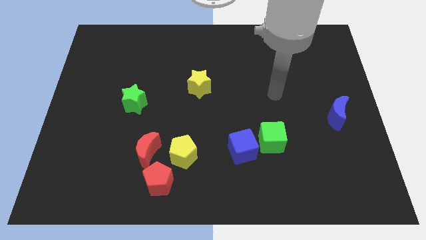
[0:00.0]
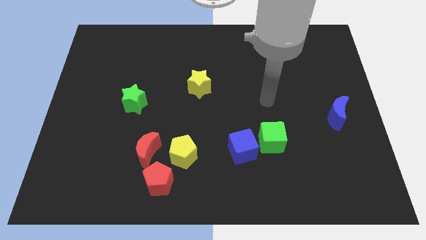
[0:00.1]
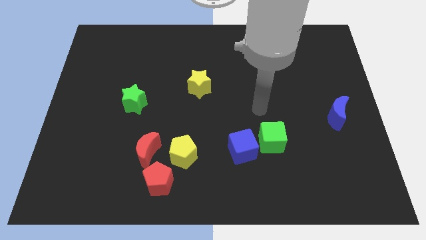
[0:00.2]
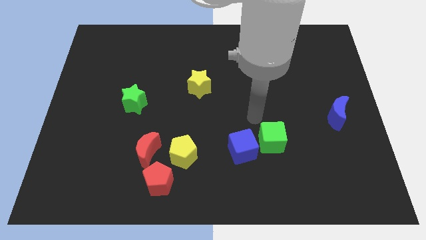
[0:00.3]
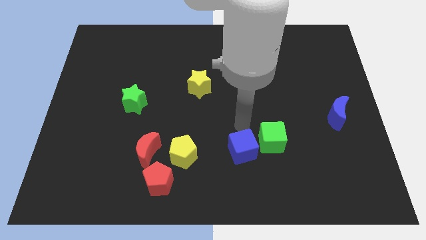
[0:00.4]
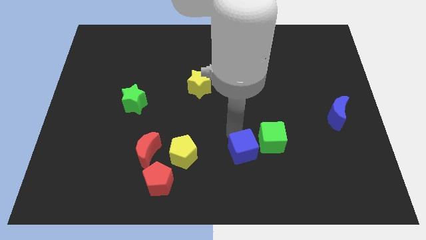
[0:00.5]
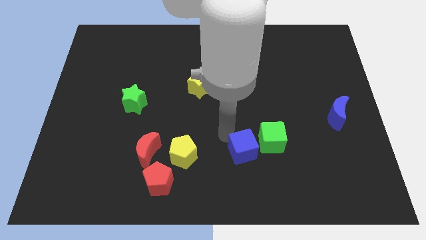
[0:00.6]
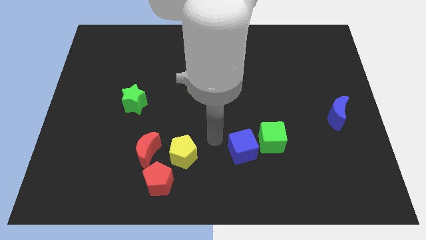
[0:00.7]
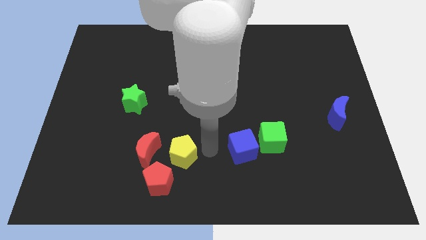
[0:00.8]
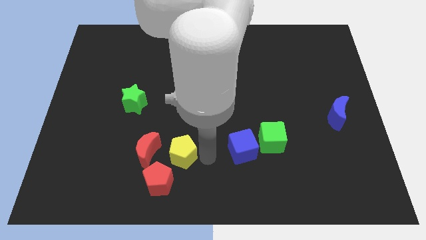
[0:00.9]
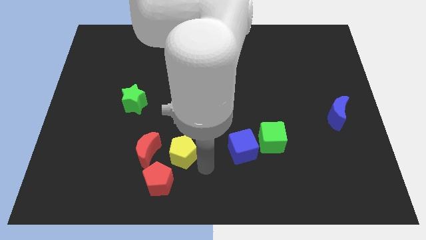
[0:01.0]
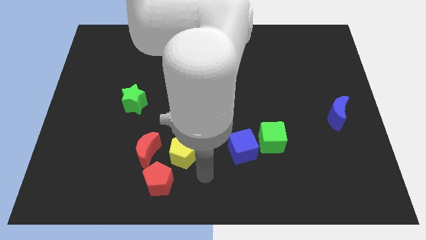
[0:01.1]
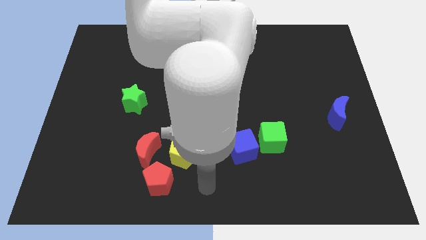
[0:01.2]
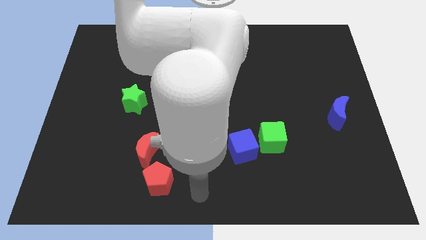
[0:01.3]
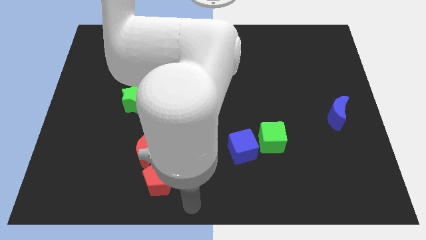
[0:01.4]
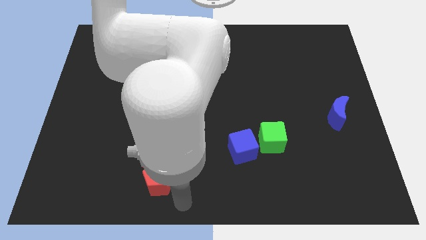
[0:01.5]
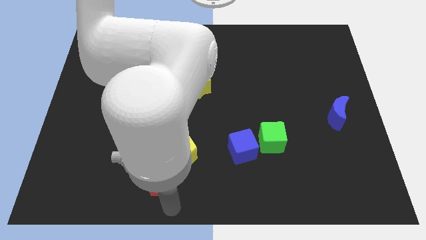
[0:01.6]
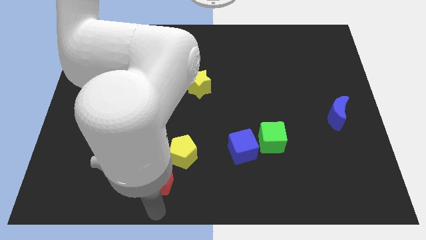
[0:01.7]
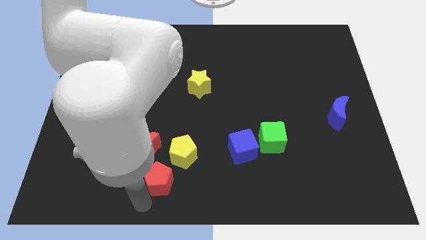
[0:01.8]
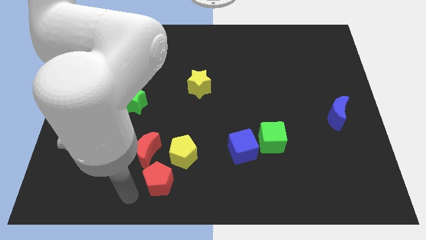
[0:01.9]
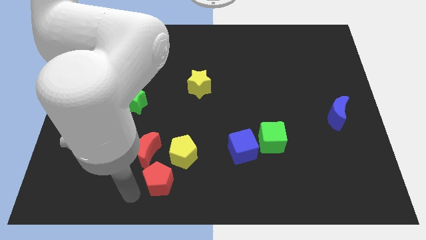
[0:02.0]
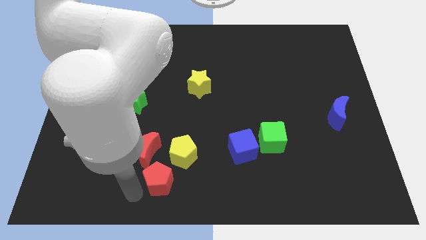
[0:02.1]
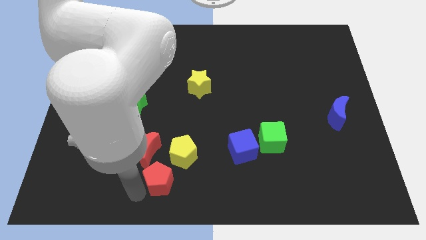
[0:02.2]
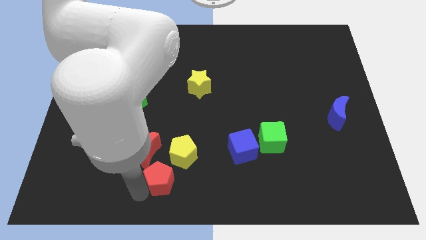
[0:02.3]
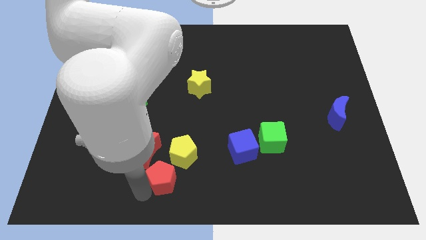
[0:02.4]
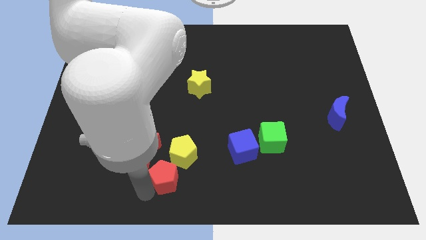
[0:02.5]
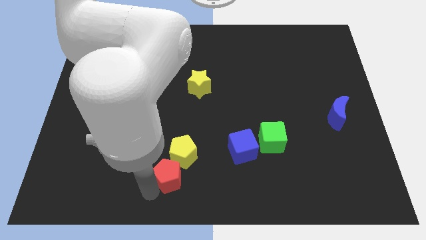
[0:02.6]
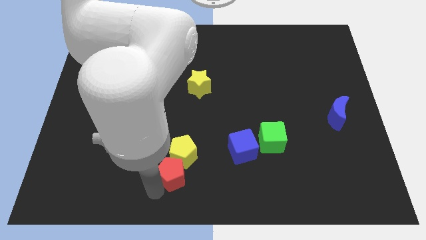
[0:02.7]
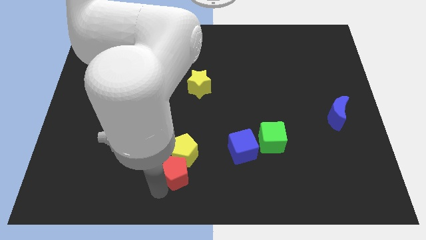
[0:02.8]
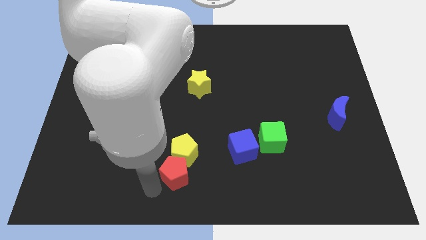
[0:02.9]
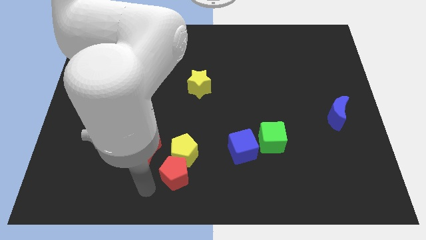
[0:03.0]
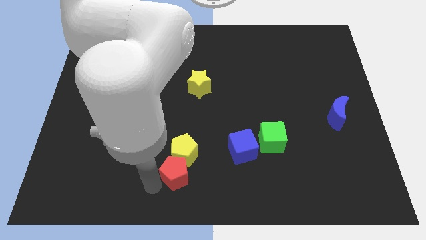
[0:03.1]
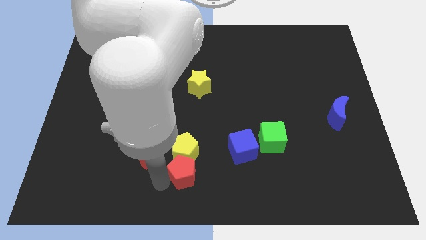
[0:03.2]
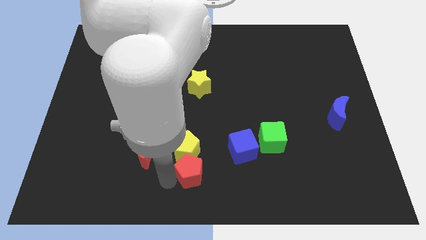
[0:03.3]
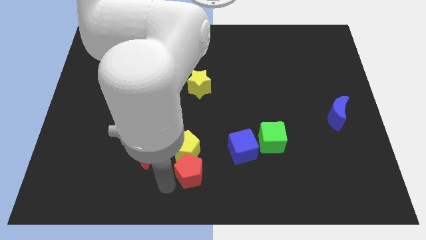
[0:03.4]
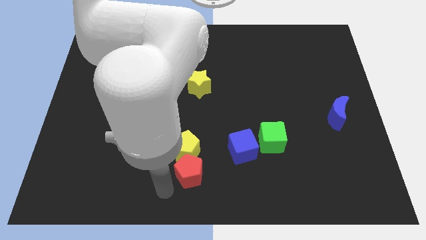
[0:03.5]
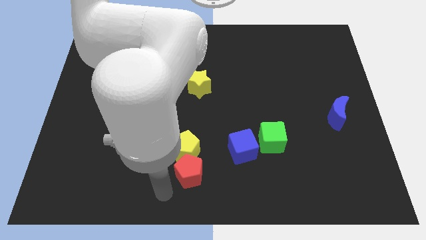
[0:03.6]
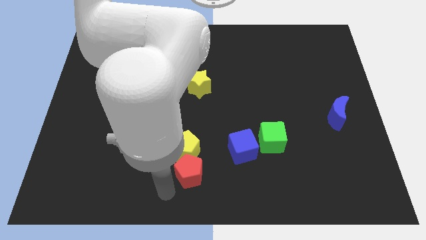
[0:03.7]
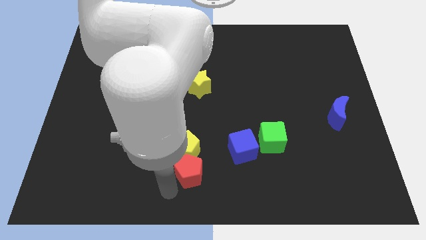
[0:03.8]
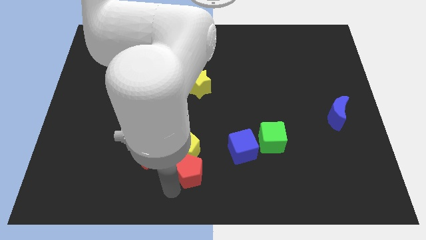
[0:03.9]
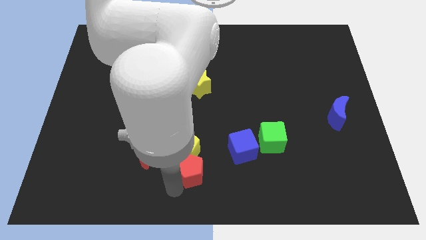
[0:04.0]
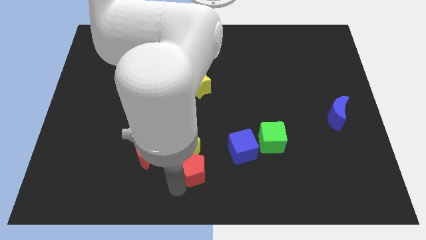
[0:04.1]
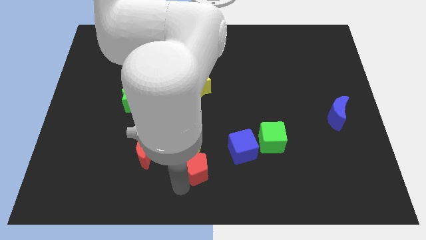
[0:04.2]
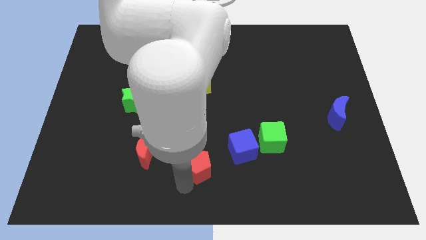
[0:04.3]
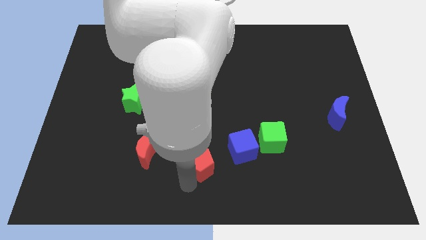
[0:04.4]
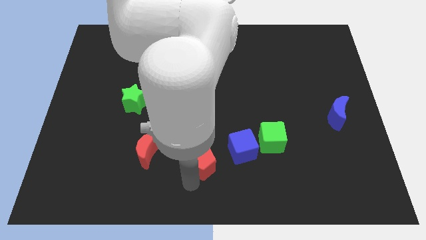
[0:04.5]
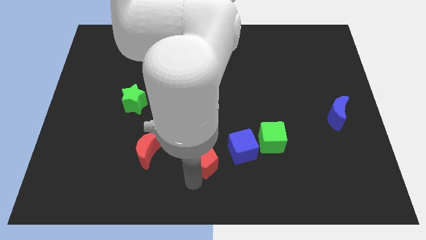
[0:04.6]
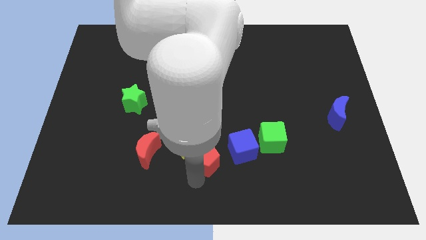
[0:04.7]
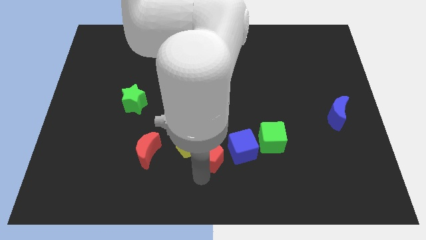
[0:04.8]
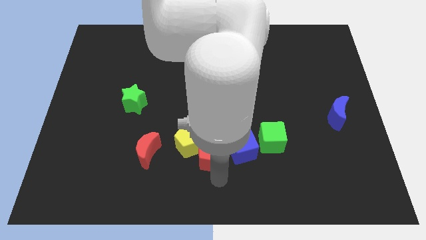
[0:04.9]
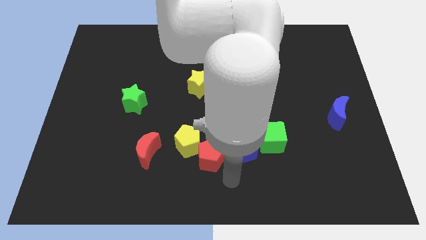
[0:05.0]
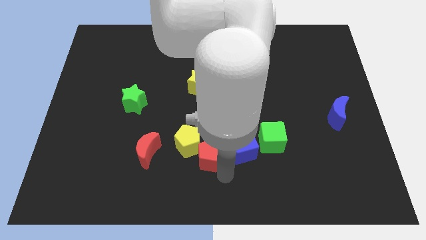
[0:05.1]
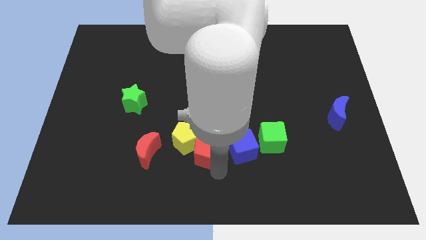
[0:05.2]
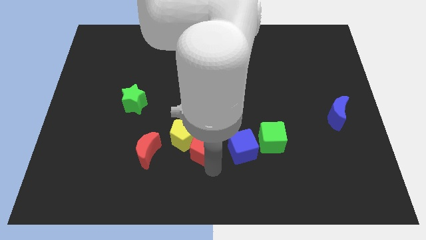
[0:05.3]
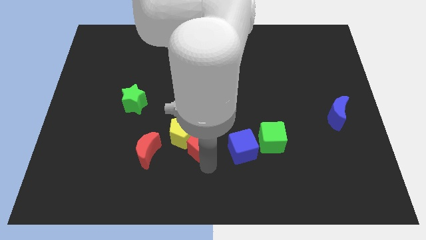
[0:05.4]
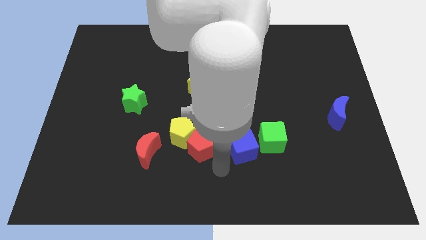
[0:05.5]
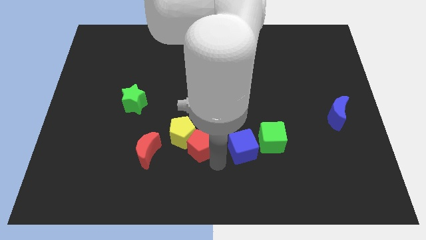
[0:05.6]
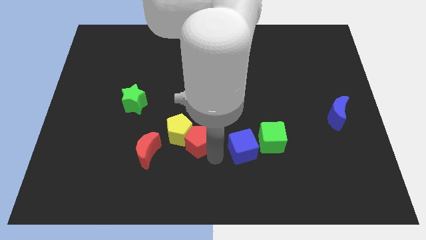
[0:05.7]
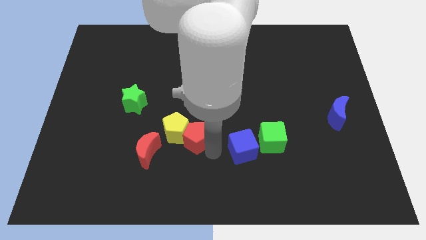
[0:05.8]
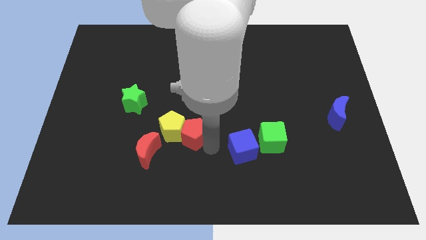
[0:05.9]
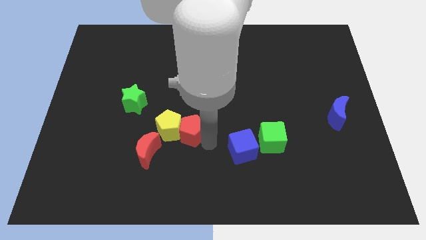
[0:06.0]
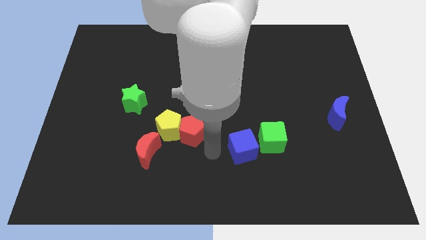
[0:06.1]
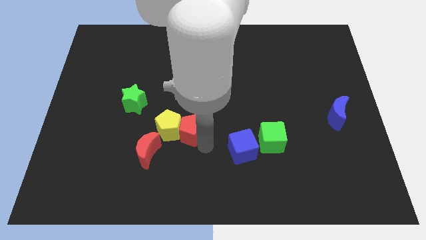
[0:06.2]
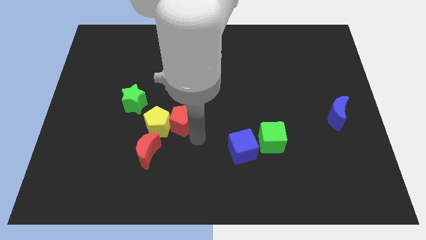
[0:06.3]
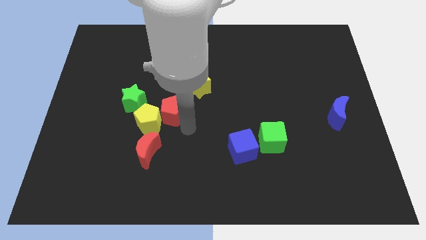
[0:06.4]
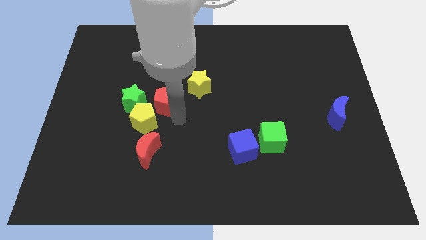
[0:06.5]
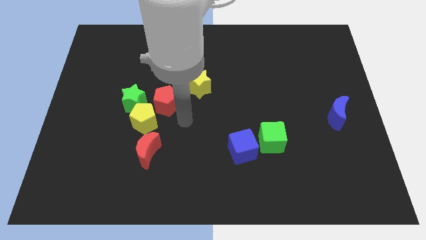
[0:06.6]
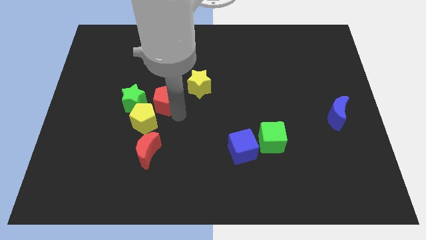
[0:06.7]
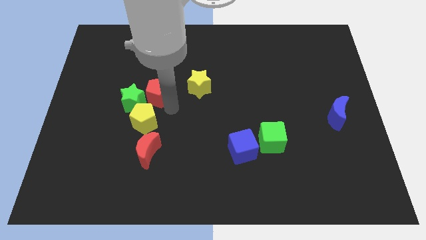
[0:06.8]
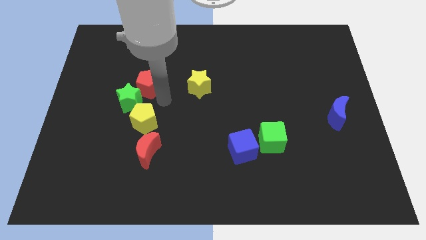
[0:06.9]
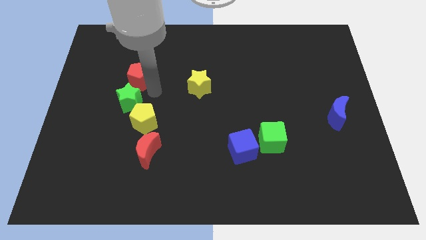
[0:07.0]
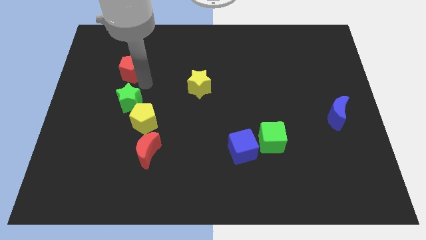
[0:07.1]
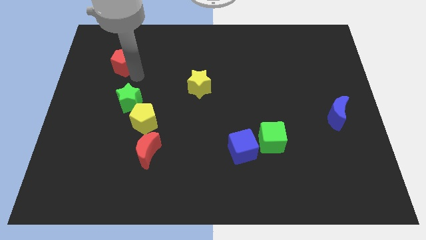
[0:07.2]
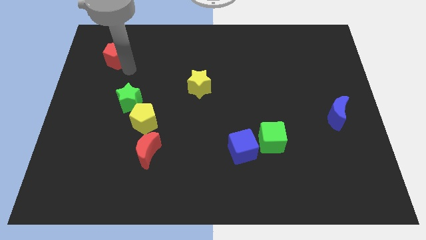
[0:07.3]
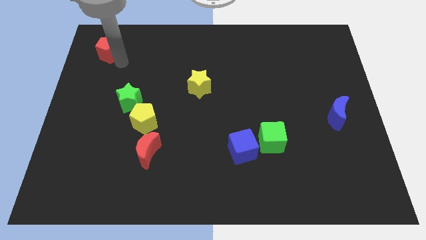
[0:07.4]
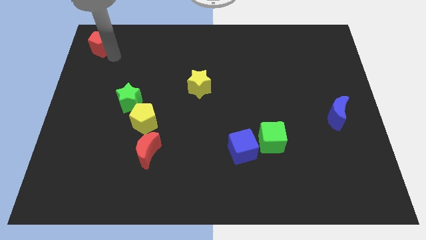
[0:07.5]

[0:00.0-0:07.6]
slide the red pentagon to the upper left corner
